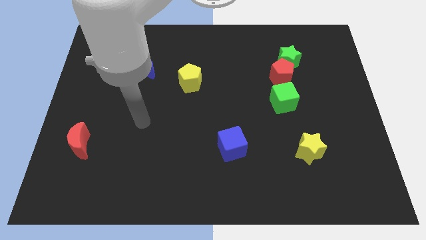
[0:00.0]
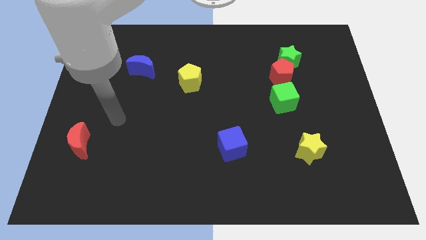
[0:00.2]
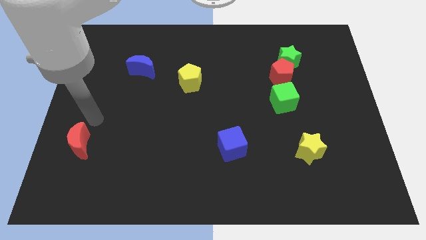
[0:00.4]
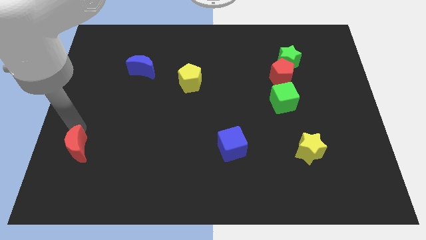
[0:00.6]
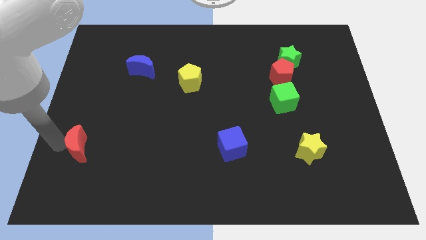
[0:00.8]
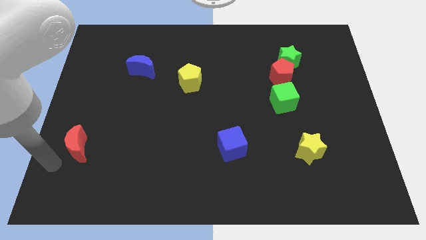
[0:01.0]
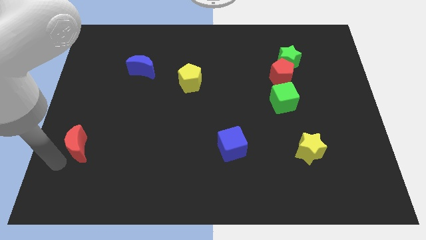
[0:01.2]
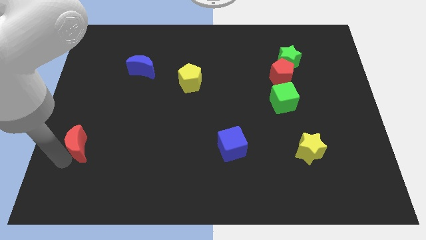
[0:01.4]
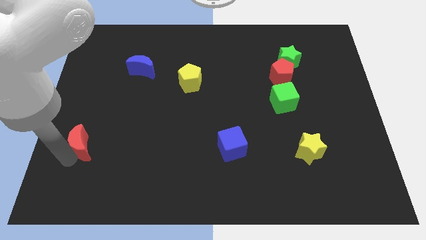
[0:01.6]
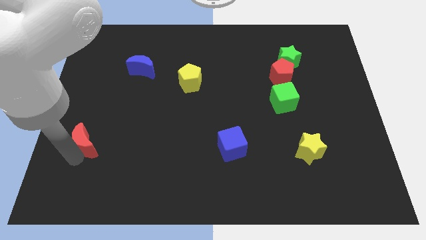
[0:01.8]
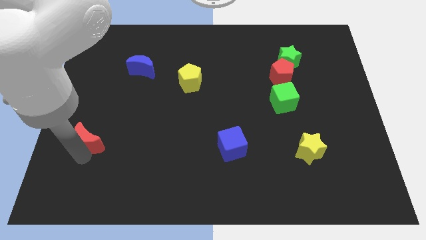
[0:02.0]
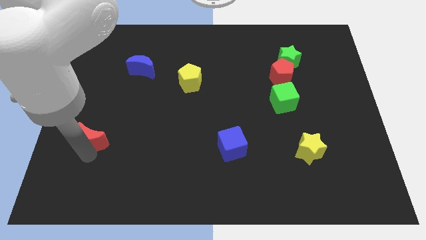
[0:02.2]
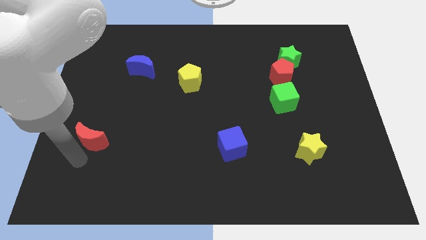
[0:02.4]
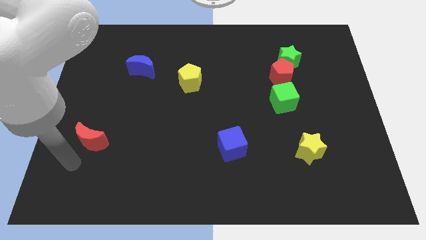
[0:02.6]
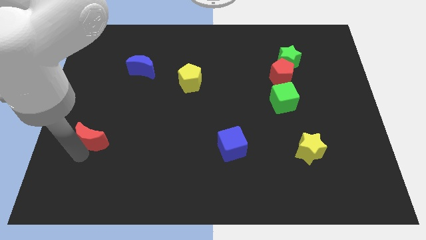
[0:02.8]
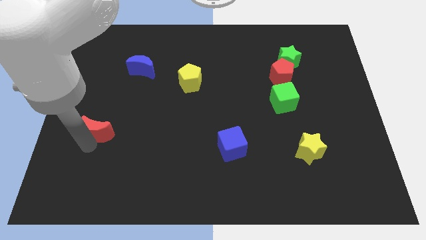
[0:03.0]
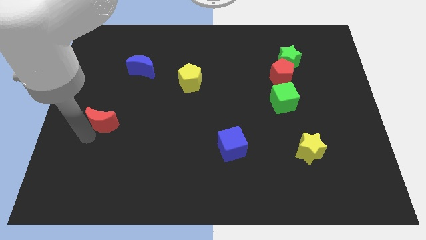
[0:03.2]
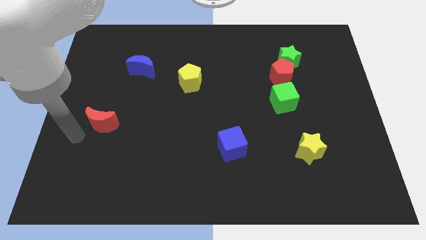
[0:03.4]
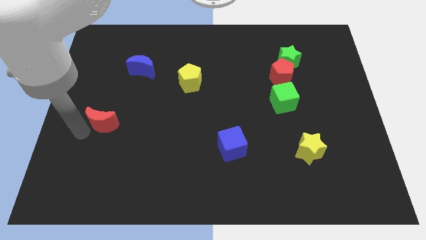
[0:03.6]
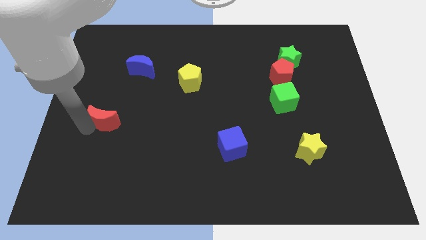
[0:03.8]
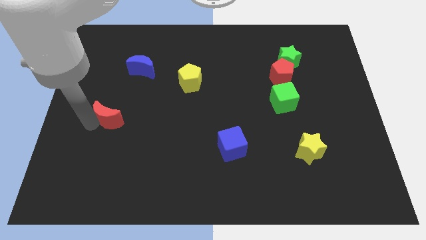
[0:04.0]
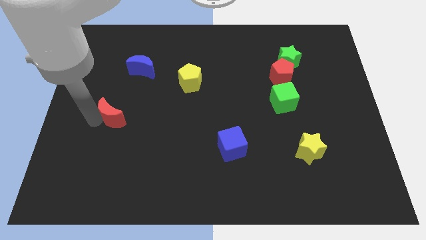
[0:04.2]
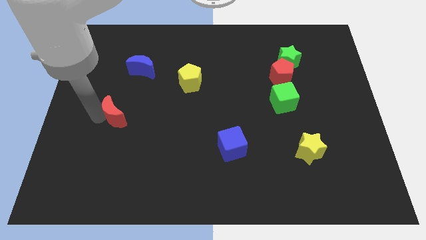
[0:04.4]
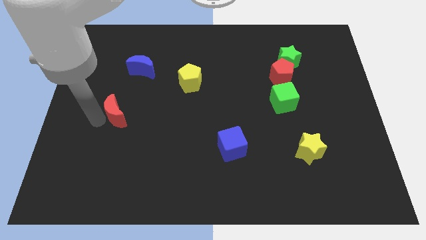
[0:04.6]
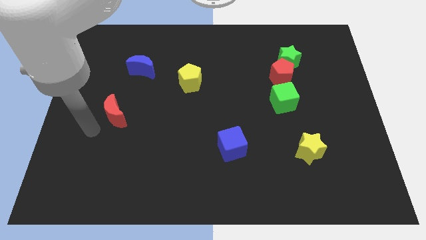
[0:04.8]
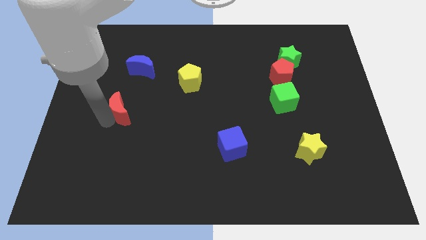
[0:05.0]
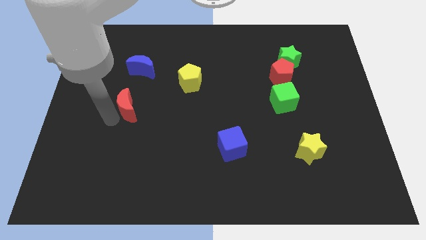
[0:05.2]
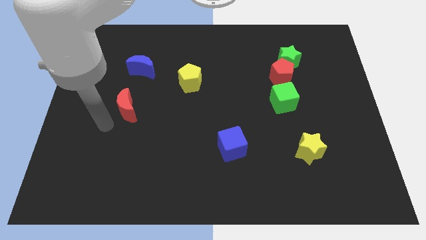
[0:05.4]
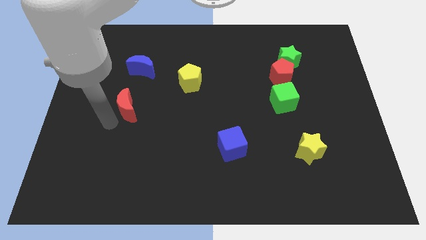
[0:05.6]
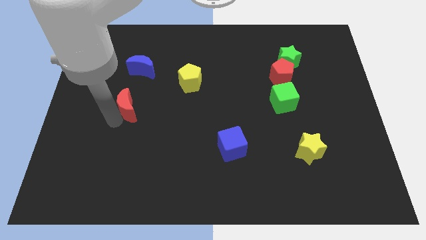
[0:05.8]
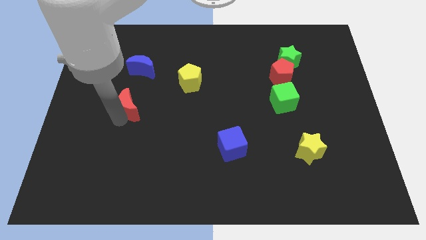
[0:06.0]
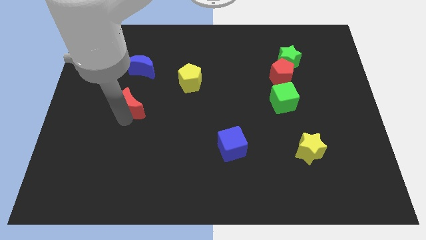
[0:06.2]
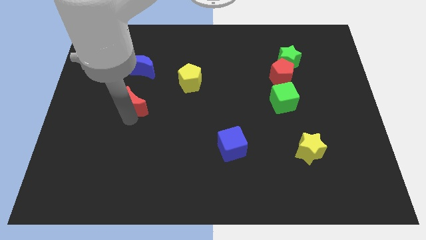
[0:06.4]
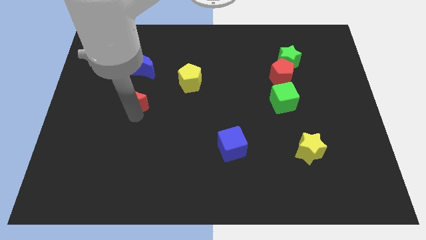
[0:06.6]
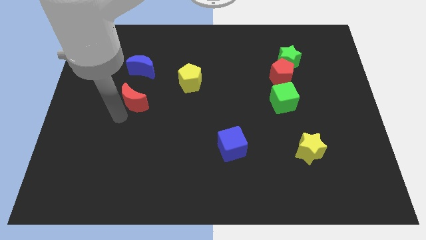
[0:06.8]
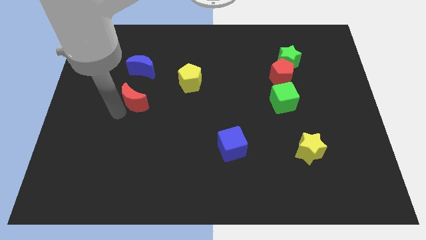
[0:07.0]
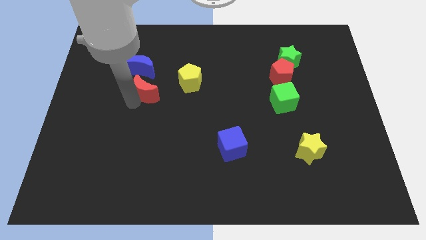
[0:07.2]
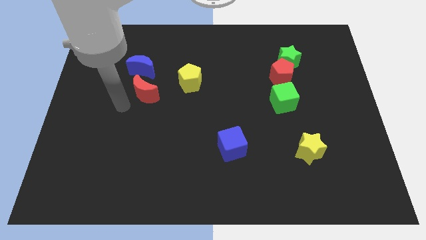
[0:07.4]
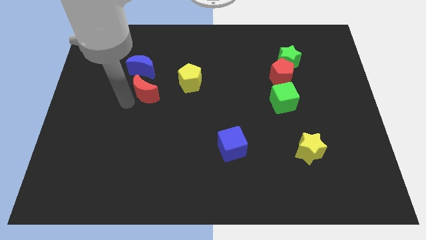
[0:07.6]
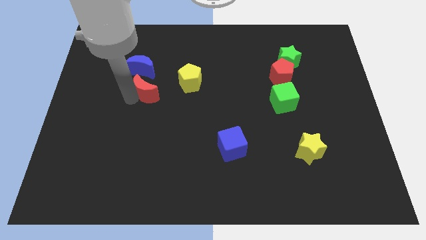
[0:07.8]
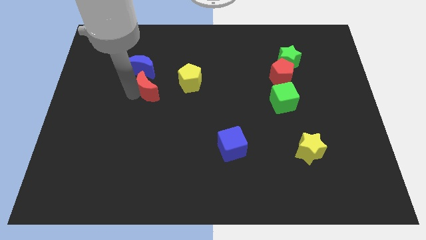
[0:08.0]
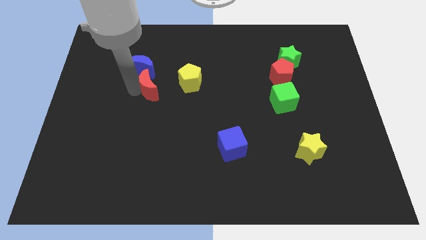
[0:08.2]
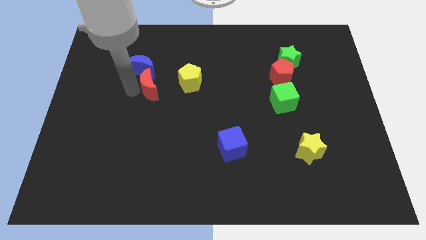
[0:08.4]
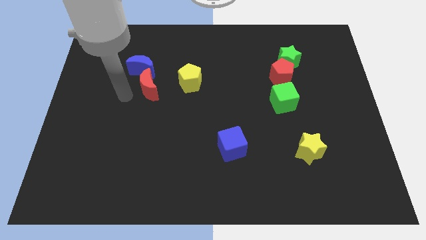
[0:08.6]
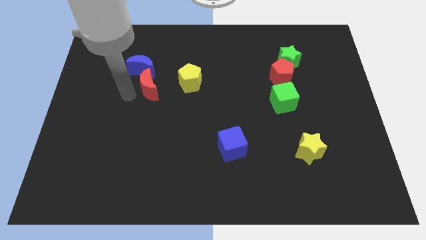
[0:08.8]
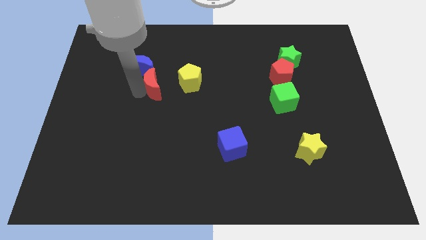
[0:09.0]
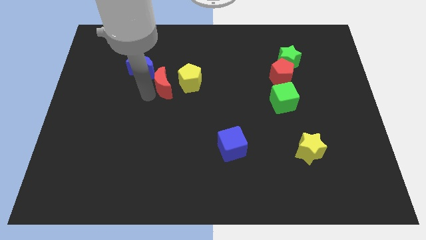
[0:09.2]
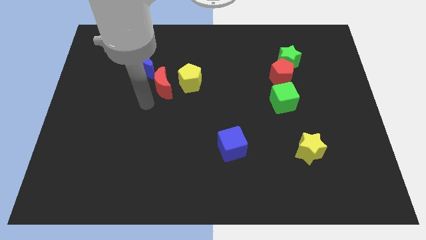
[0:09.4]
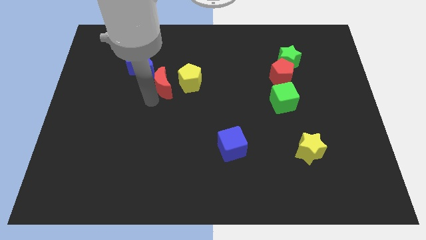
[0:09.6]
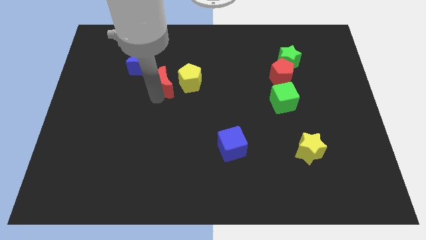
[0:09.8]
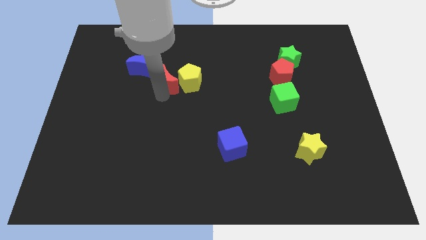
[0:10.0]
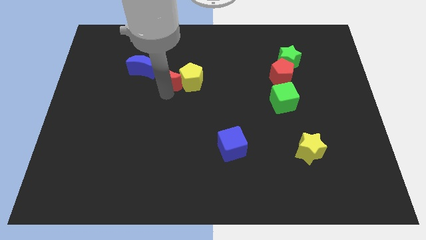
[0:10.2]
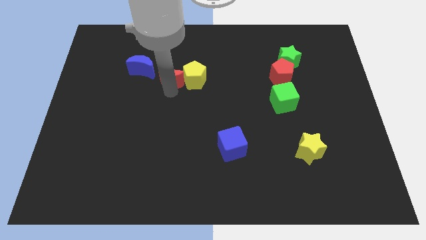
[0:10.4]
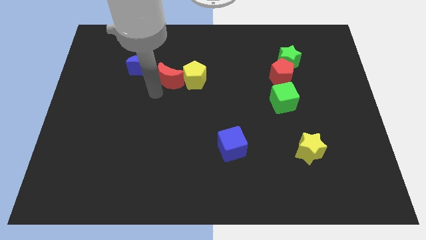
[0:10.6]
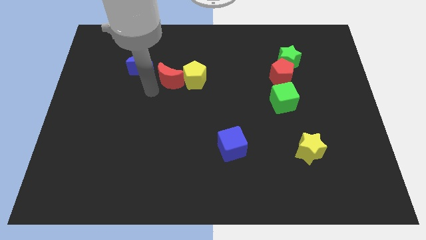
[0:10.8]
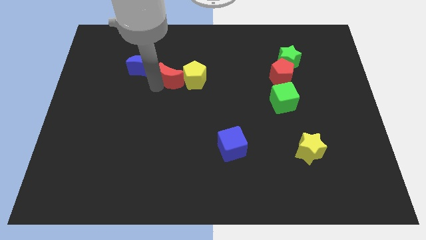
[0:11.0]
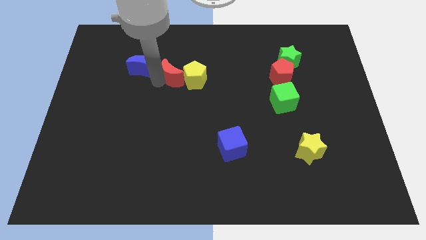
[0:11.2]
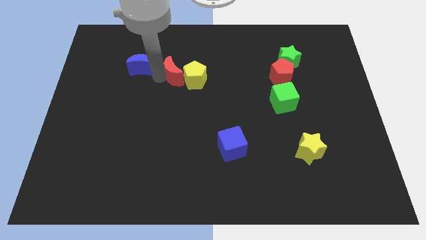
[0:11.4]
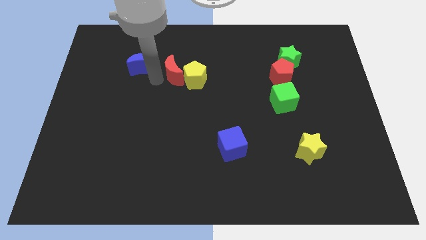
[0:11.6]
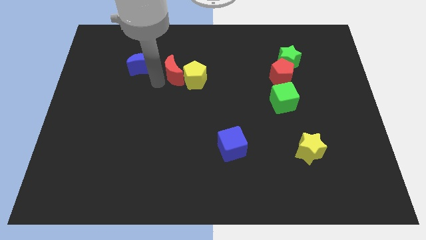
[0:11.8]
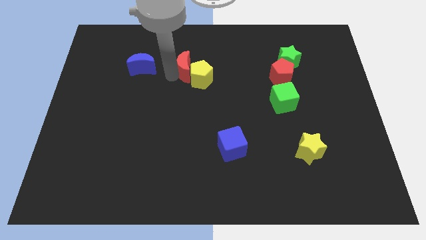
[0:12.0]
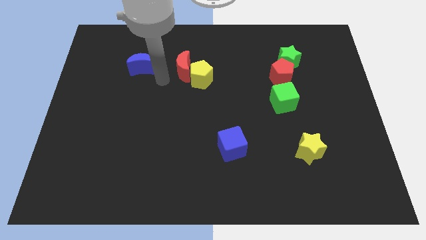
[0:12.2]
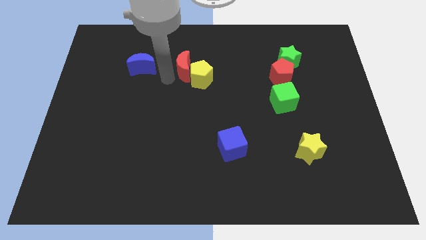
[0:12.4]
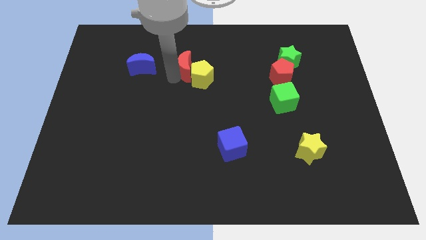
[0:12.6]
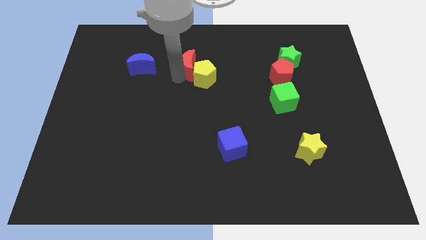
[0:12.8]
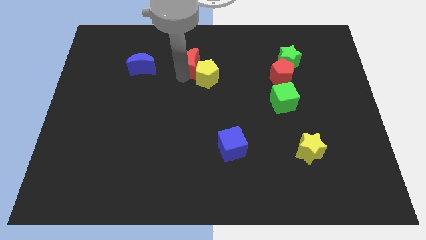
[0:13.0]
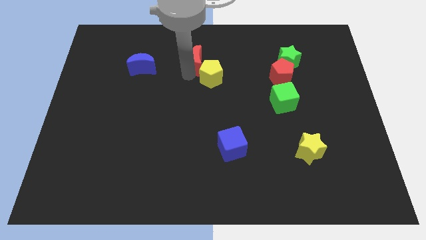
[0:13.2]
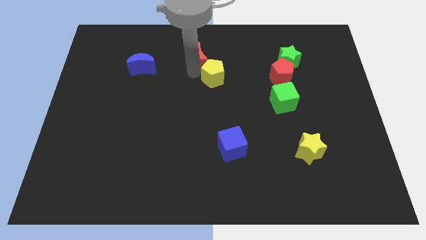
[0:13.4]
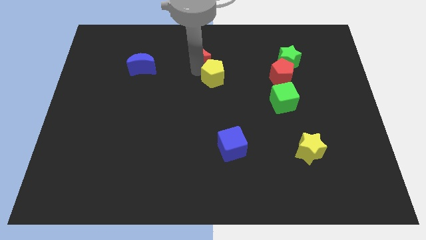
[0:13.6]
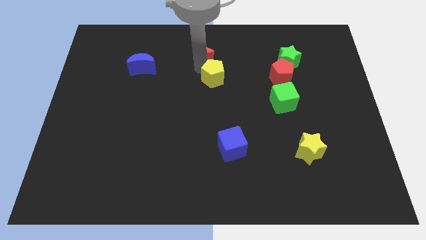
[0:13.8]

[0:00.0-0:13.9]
push the red moon to the towards your base
